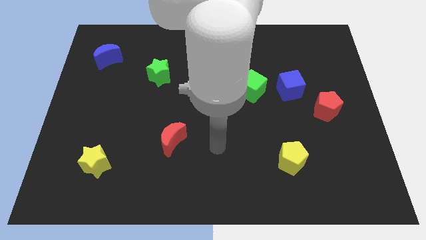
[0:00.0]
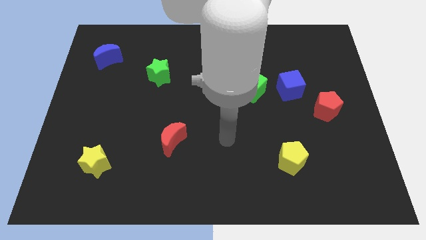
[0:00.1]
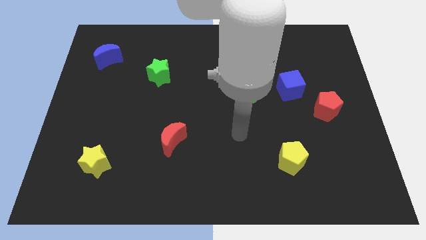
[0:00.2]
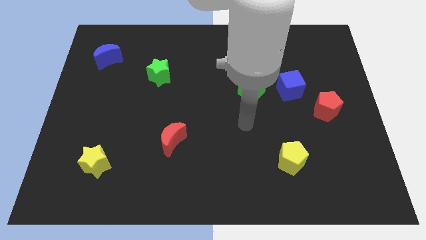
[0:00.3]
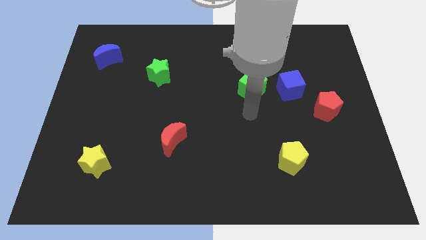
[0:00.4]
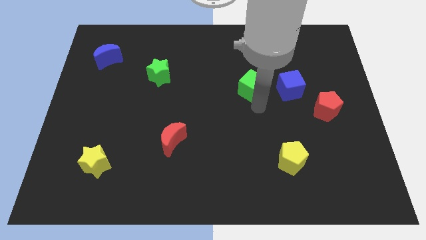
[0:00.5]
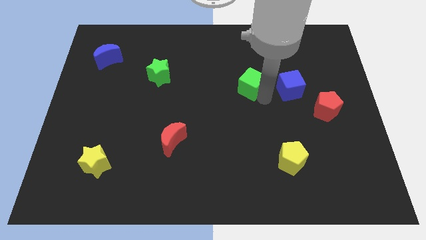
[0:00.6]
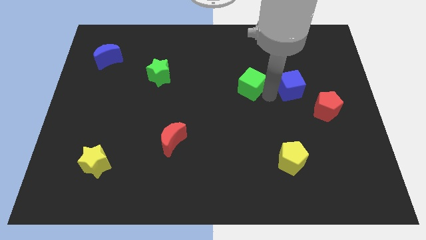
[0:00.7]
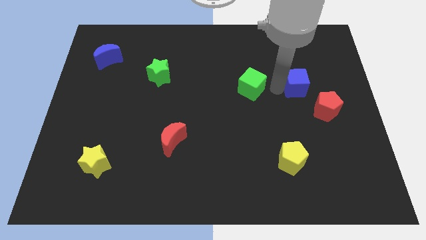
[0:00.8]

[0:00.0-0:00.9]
pull the green cube apart from the blue cube

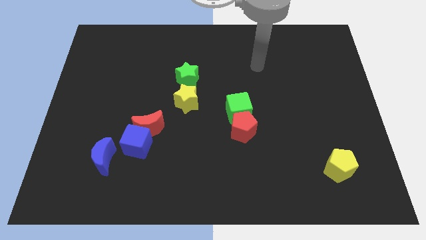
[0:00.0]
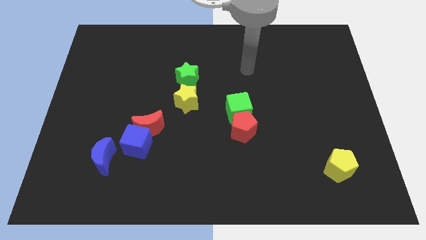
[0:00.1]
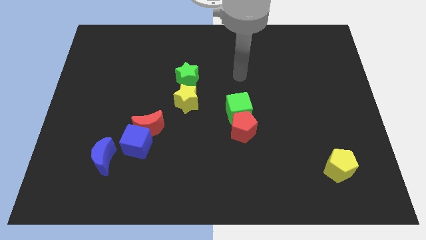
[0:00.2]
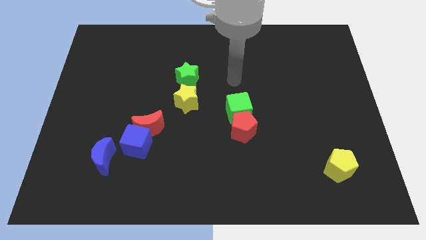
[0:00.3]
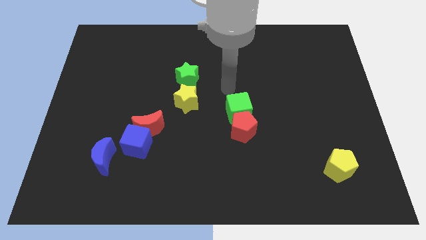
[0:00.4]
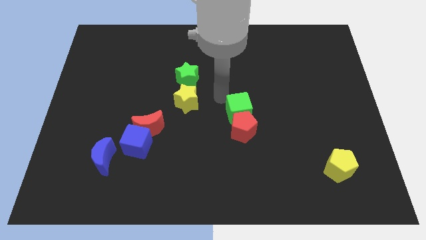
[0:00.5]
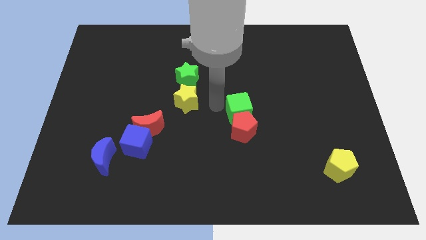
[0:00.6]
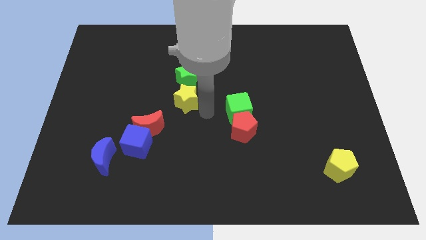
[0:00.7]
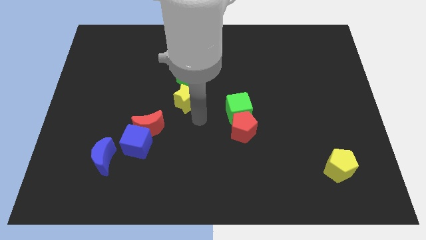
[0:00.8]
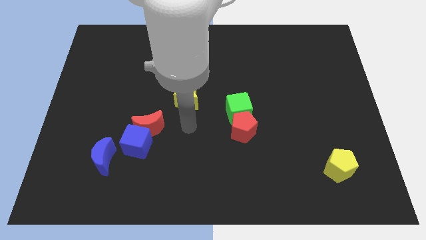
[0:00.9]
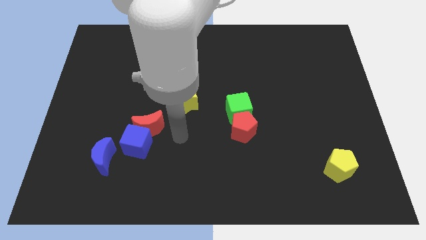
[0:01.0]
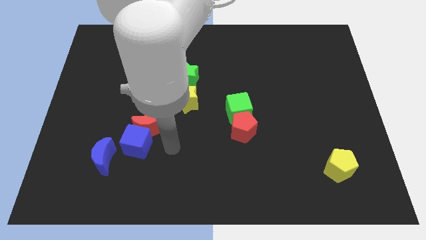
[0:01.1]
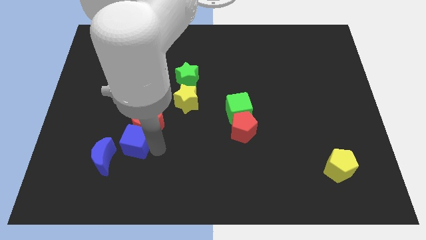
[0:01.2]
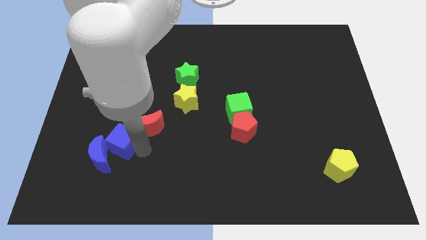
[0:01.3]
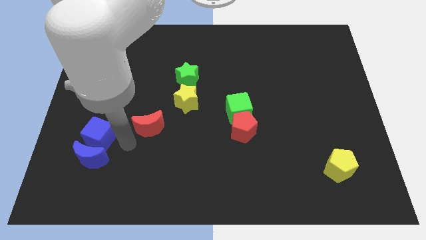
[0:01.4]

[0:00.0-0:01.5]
pull the red moon apart from the blue cube

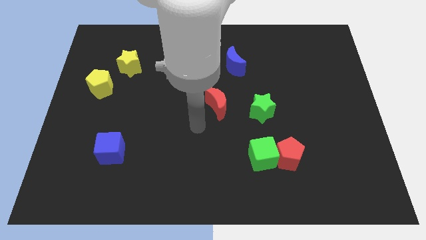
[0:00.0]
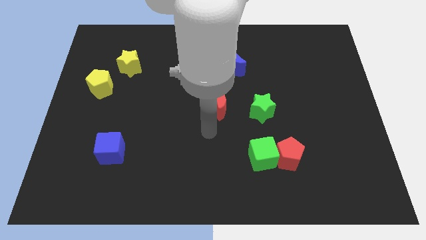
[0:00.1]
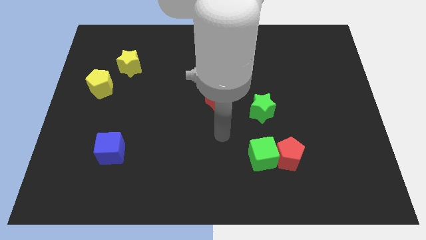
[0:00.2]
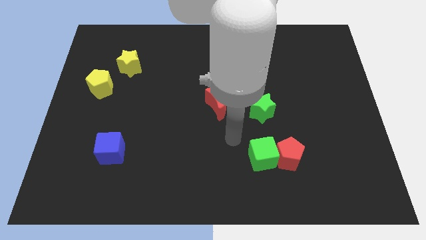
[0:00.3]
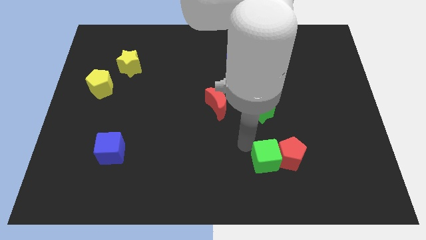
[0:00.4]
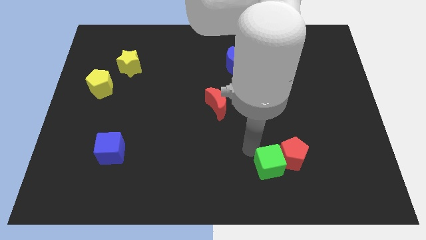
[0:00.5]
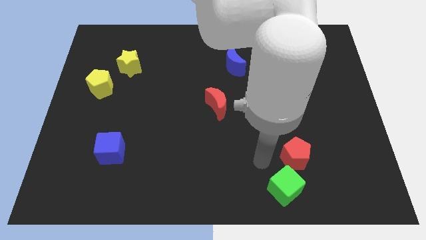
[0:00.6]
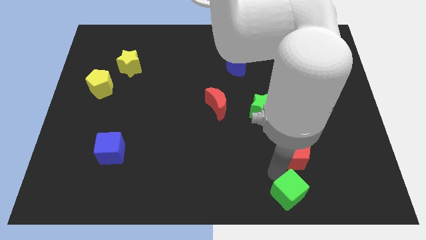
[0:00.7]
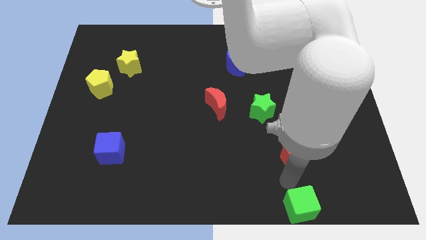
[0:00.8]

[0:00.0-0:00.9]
separate the red pentagon from the green cube

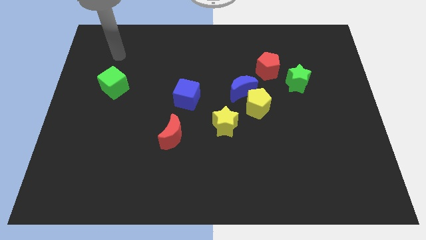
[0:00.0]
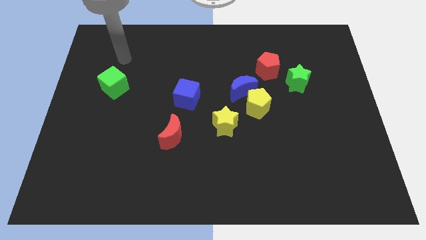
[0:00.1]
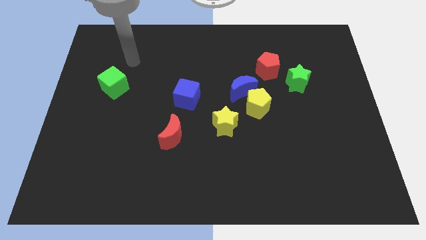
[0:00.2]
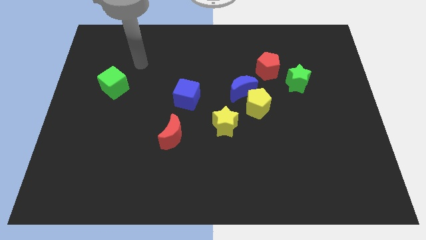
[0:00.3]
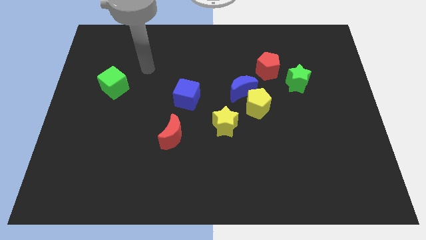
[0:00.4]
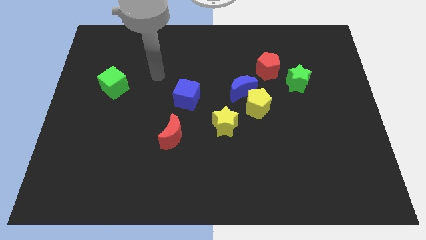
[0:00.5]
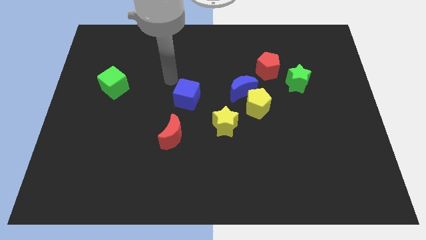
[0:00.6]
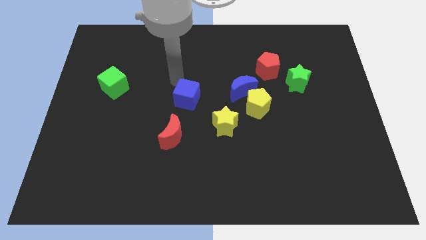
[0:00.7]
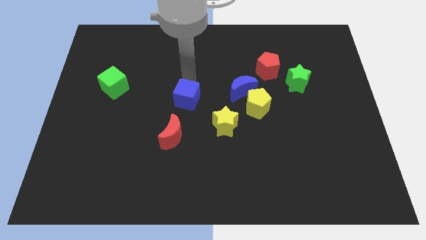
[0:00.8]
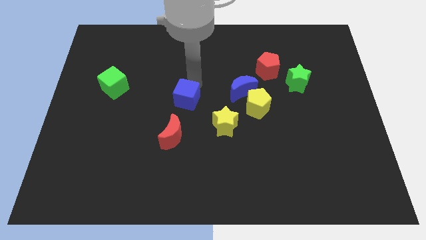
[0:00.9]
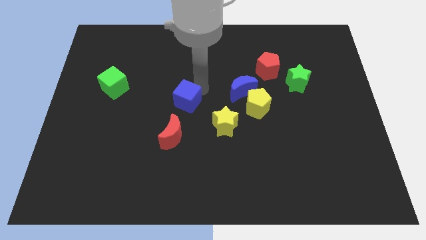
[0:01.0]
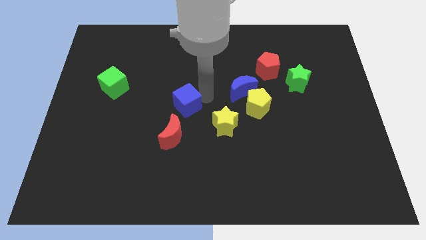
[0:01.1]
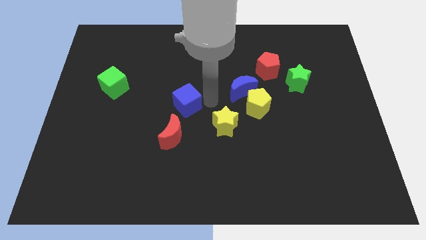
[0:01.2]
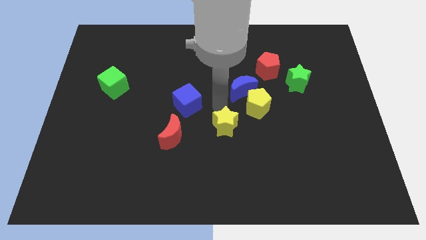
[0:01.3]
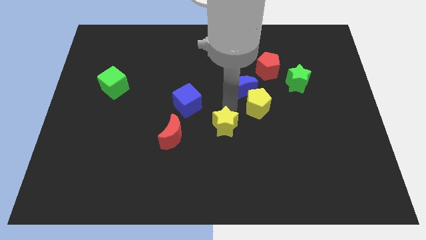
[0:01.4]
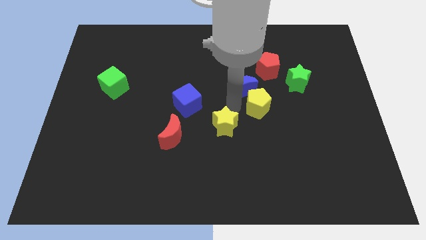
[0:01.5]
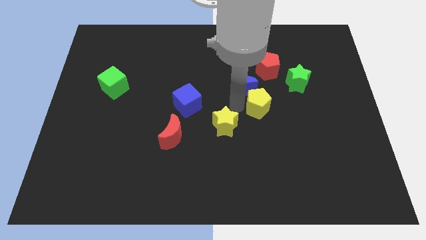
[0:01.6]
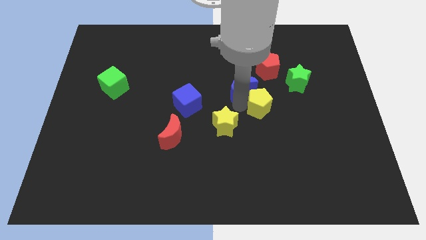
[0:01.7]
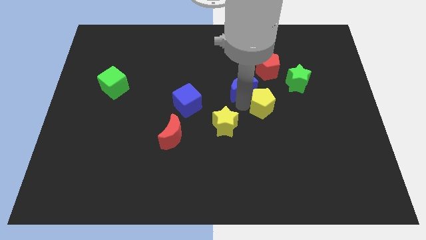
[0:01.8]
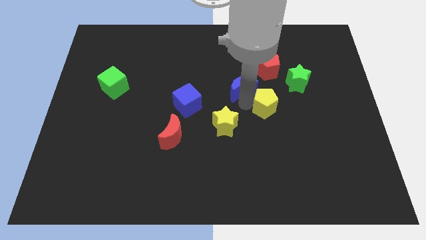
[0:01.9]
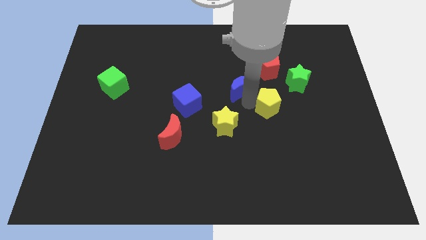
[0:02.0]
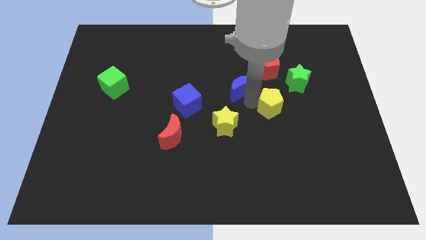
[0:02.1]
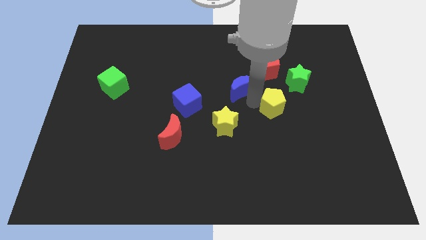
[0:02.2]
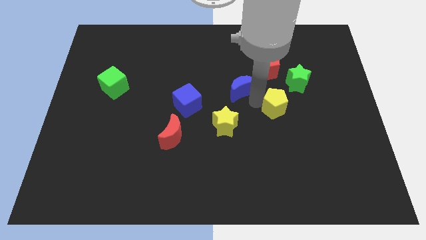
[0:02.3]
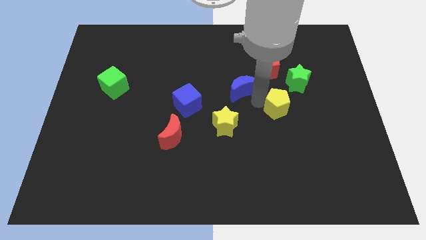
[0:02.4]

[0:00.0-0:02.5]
pull the yellow pentagon apart from the blue moon and yellow star

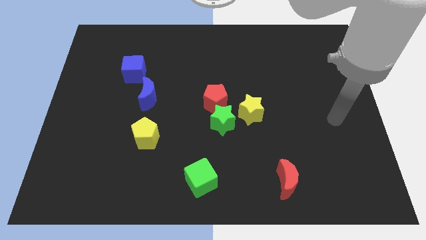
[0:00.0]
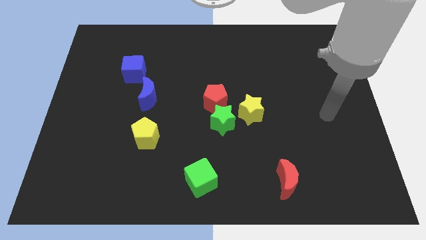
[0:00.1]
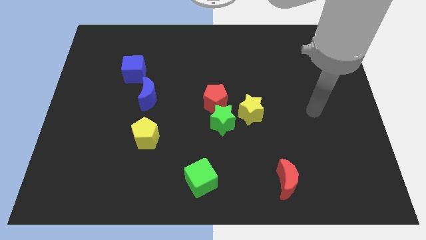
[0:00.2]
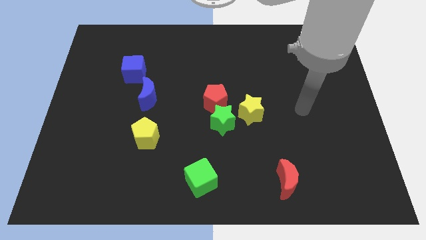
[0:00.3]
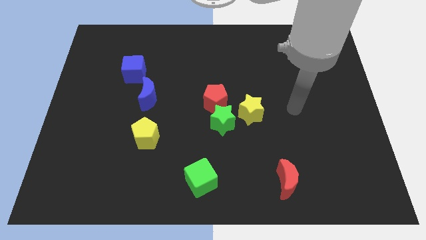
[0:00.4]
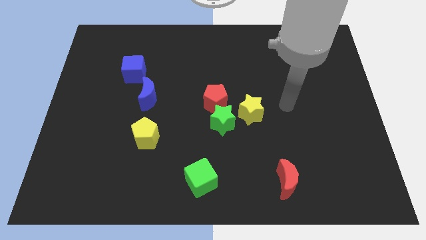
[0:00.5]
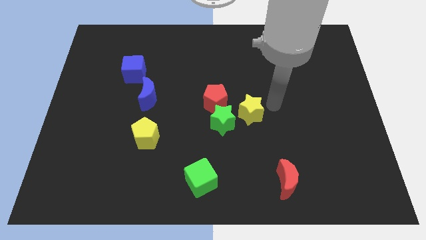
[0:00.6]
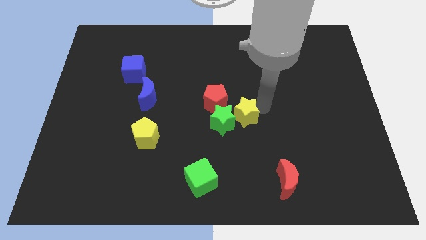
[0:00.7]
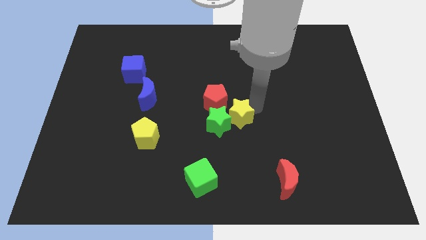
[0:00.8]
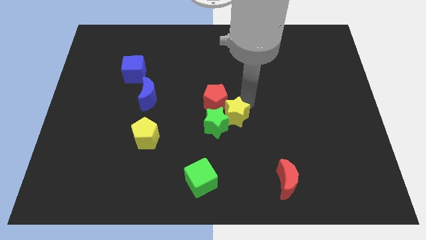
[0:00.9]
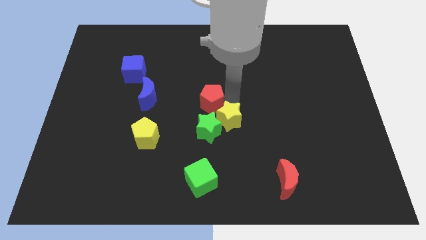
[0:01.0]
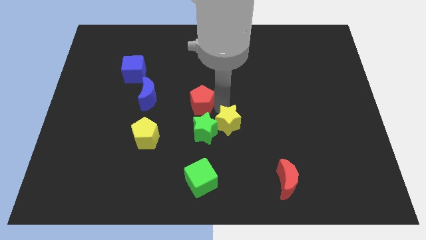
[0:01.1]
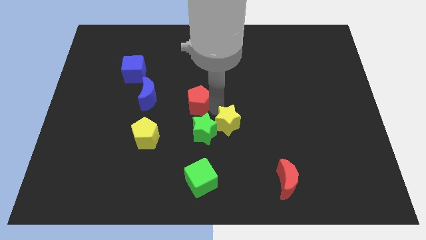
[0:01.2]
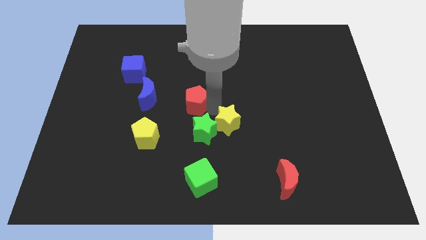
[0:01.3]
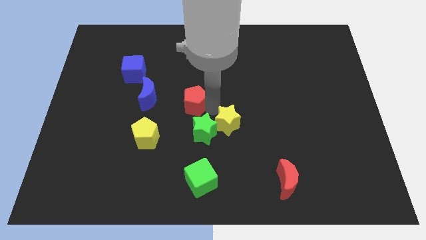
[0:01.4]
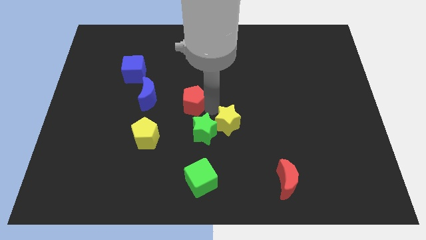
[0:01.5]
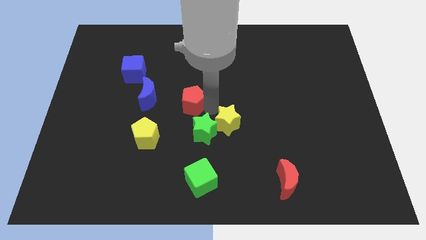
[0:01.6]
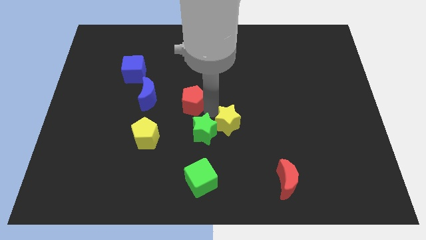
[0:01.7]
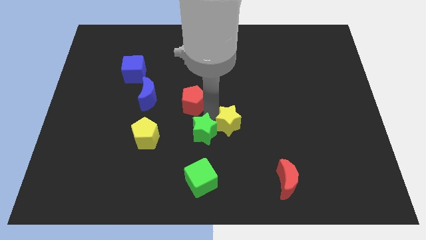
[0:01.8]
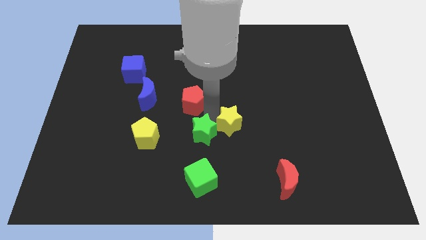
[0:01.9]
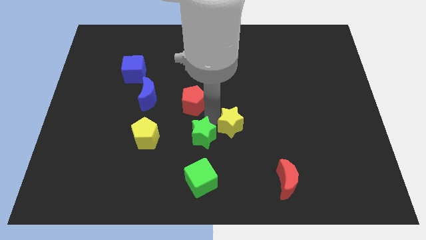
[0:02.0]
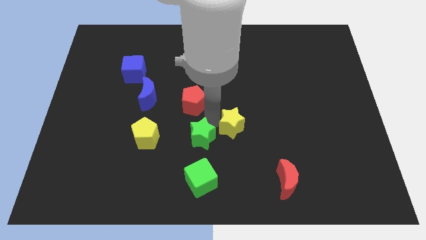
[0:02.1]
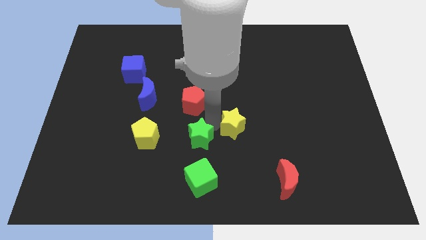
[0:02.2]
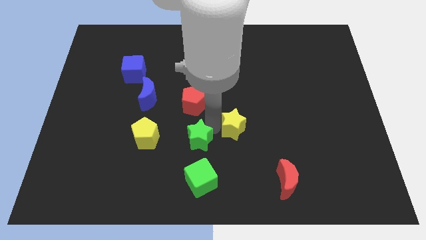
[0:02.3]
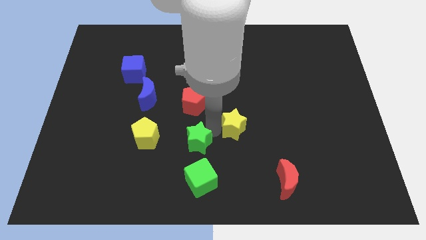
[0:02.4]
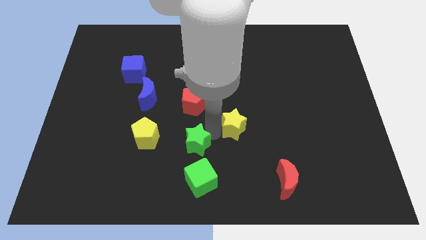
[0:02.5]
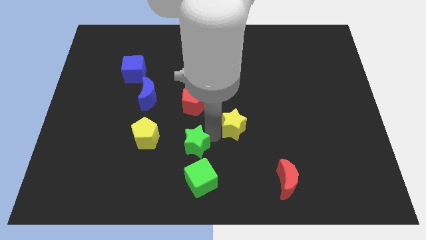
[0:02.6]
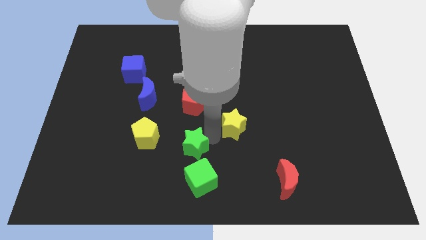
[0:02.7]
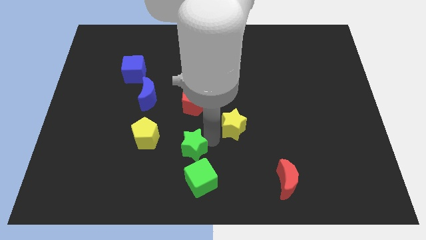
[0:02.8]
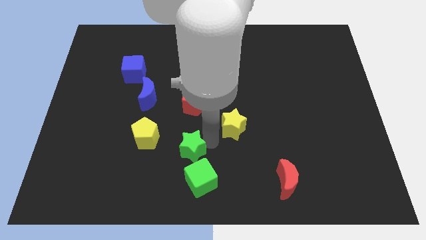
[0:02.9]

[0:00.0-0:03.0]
move the green star away from the red pentagon and yellow star

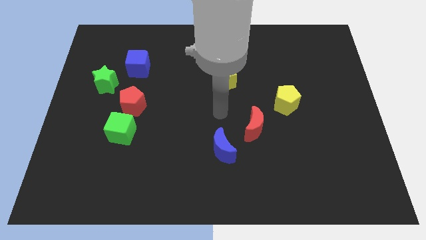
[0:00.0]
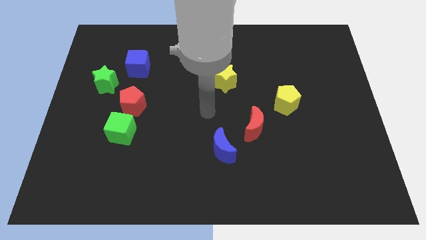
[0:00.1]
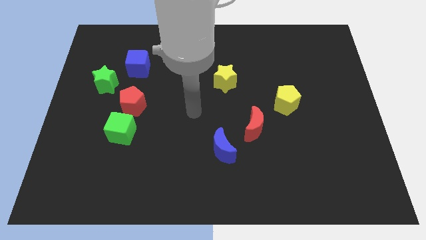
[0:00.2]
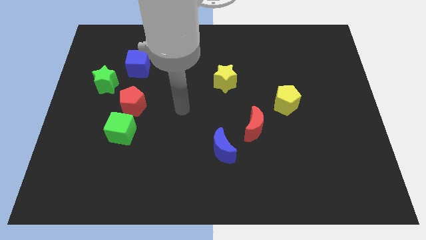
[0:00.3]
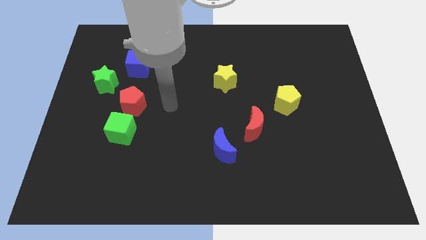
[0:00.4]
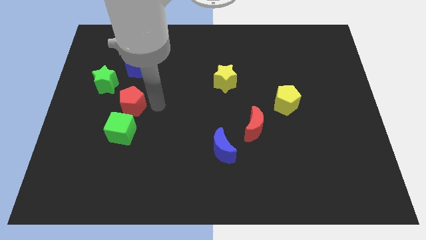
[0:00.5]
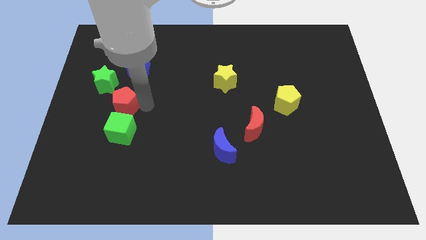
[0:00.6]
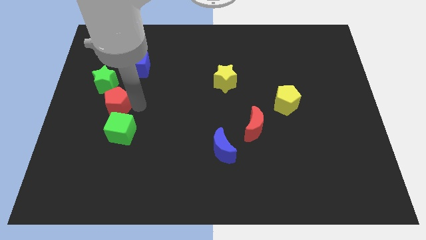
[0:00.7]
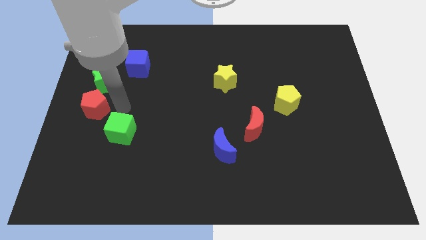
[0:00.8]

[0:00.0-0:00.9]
move the green cube away from the red pentagon
